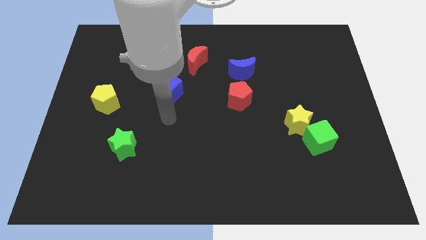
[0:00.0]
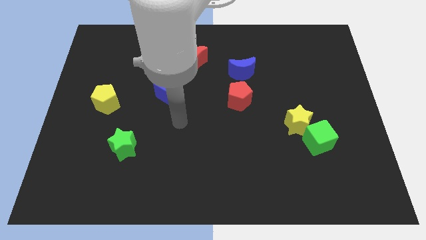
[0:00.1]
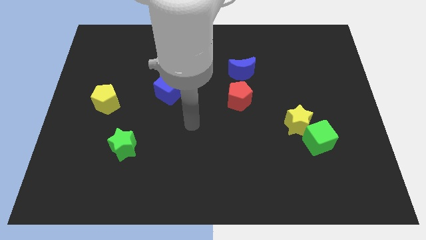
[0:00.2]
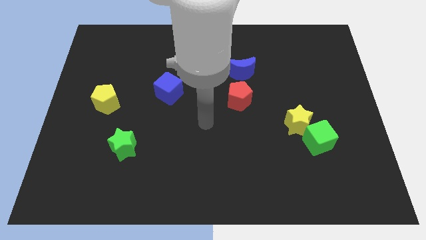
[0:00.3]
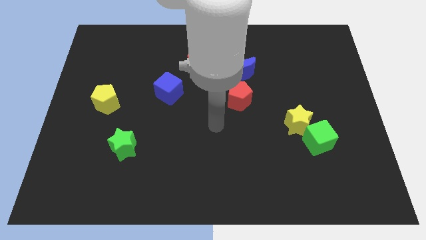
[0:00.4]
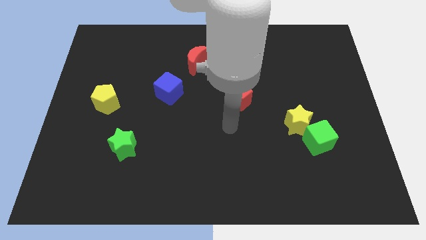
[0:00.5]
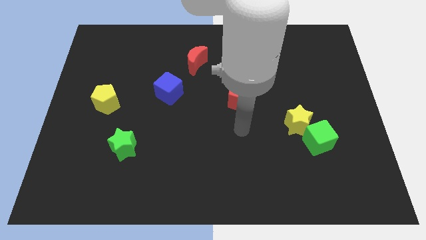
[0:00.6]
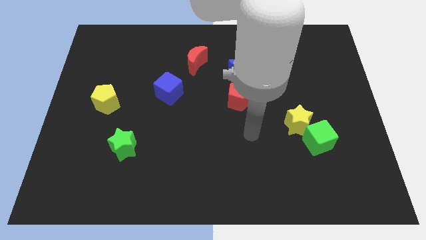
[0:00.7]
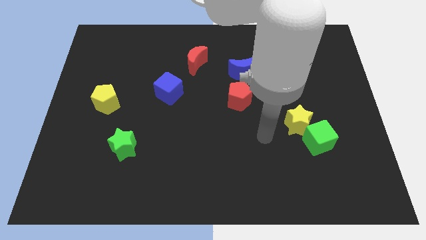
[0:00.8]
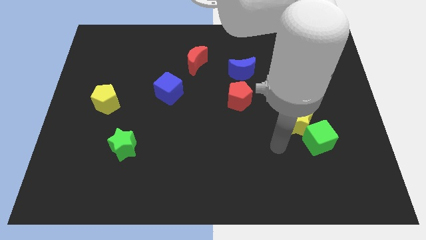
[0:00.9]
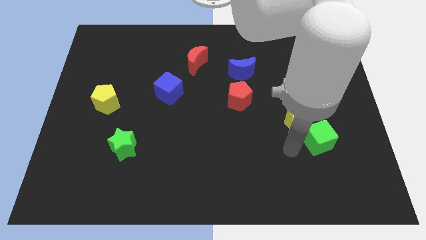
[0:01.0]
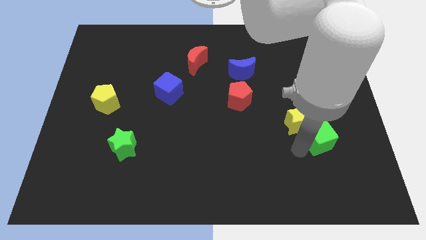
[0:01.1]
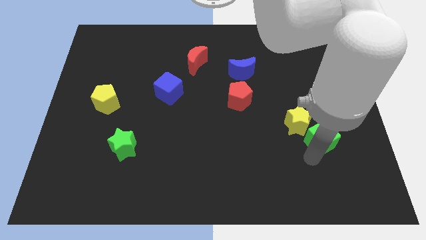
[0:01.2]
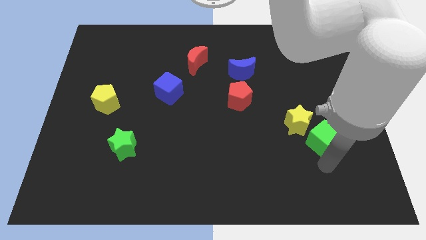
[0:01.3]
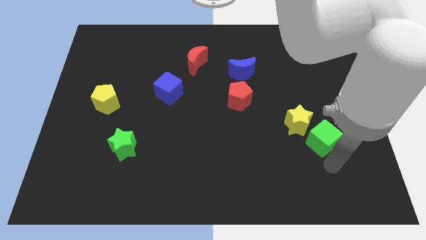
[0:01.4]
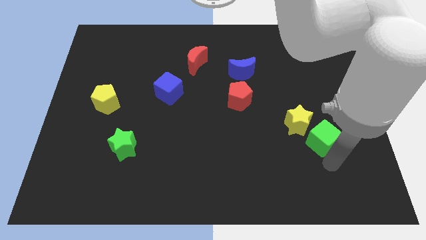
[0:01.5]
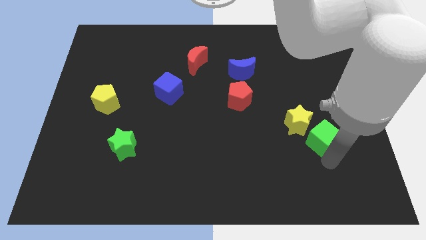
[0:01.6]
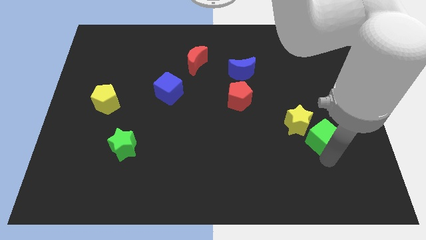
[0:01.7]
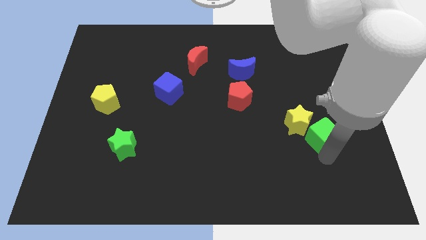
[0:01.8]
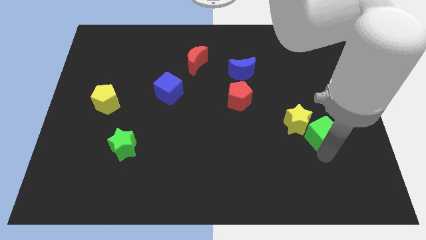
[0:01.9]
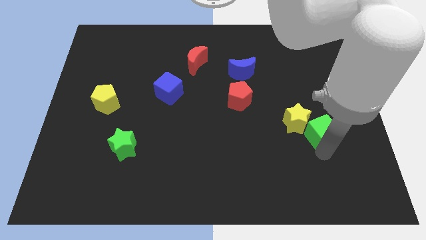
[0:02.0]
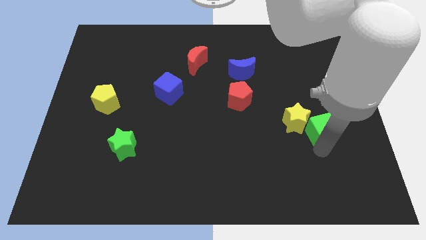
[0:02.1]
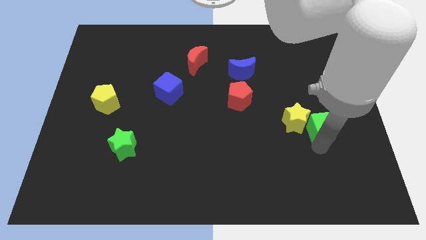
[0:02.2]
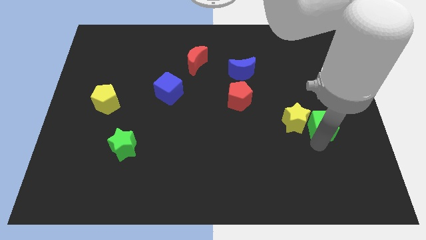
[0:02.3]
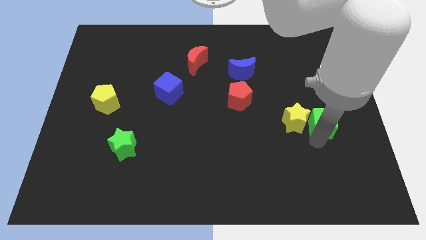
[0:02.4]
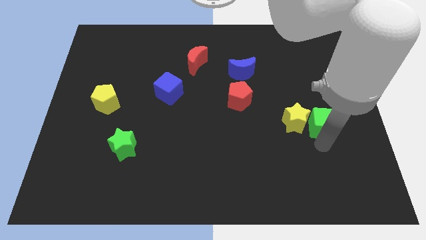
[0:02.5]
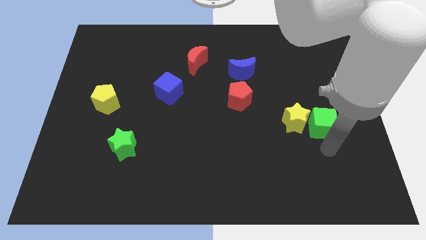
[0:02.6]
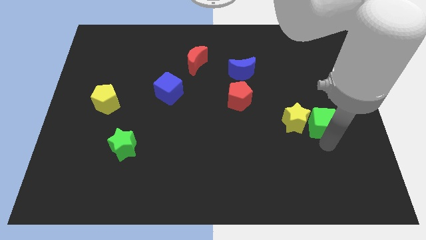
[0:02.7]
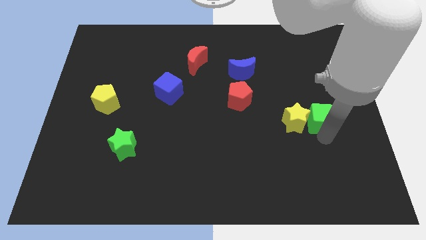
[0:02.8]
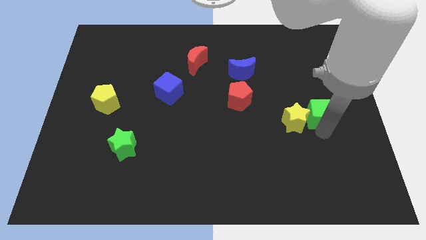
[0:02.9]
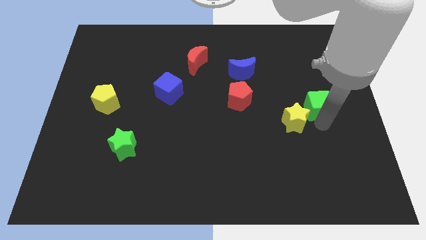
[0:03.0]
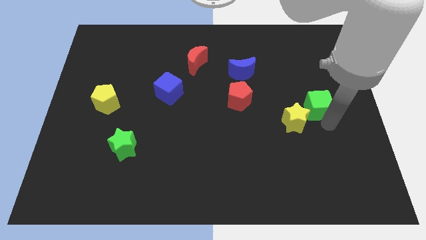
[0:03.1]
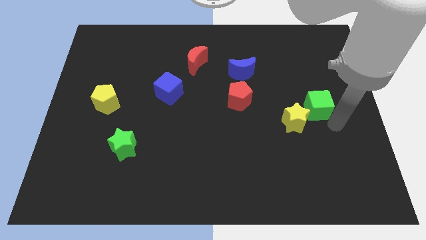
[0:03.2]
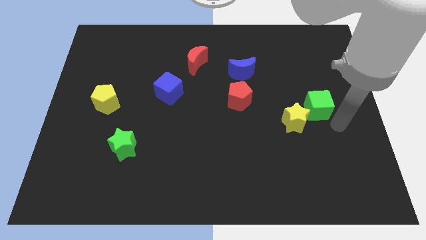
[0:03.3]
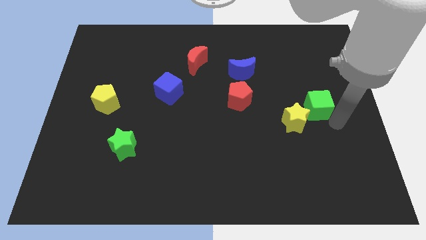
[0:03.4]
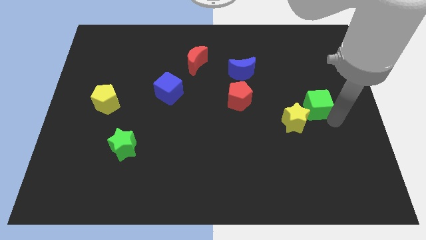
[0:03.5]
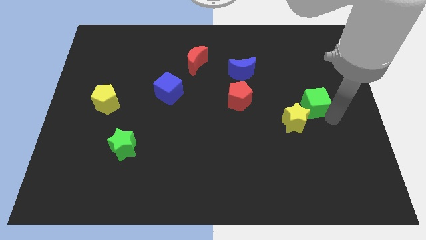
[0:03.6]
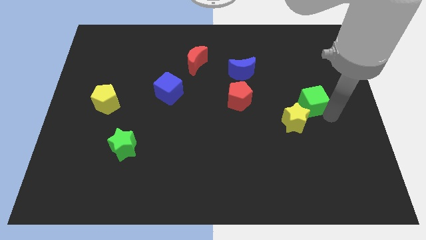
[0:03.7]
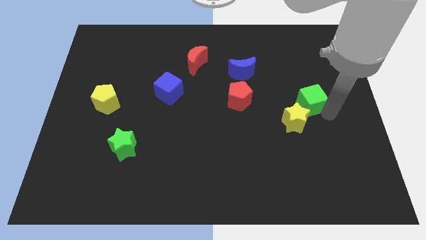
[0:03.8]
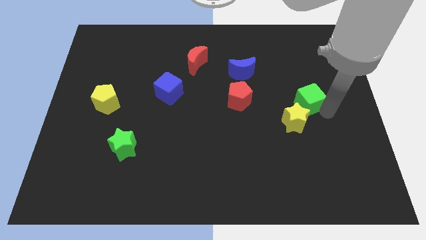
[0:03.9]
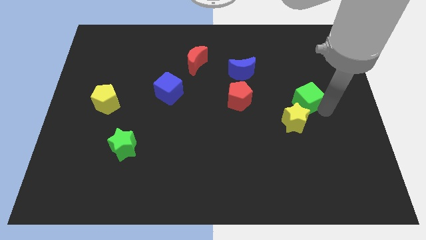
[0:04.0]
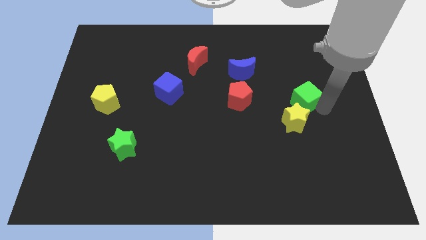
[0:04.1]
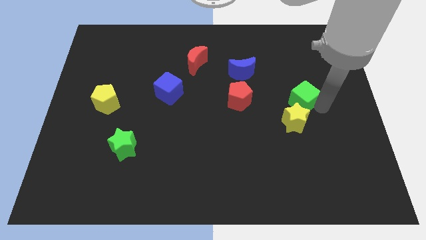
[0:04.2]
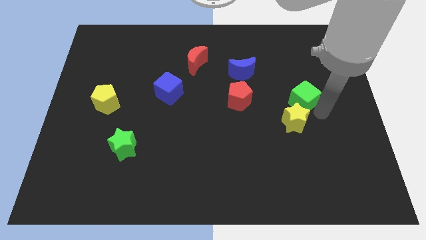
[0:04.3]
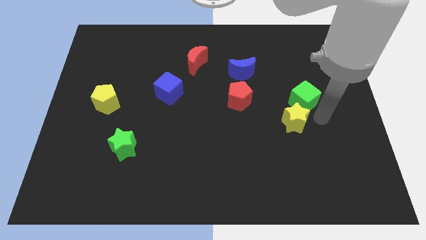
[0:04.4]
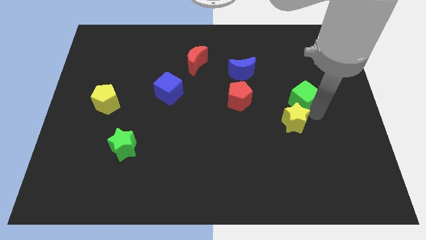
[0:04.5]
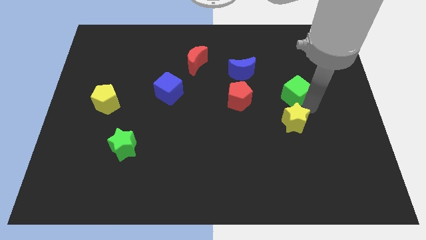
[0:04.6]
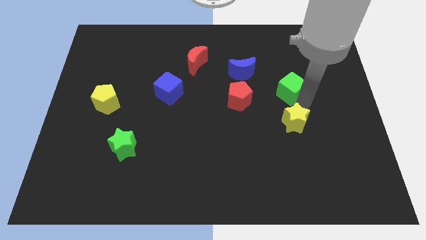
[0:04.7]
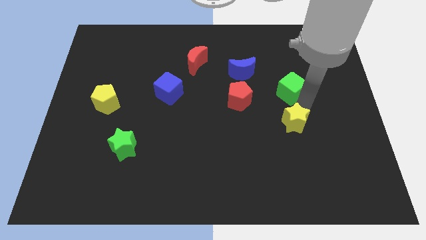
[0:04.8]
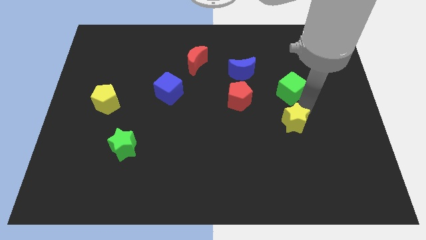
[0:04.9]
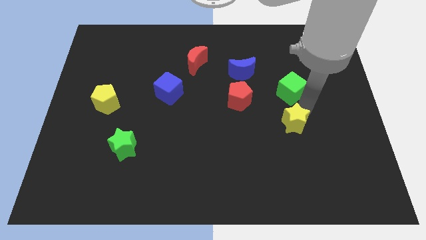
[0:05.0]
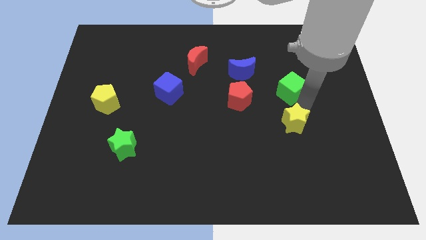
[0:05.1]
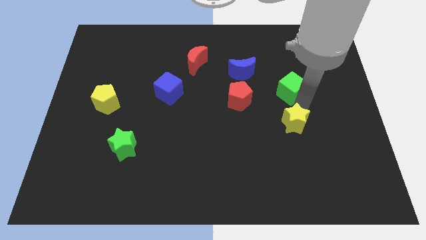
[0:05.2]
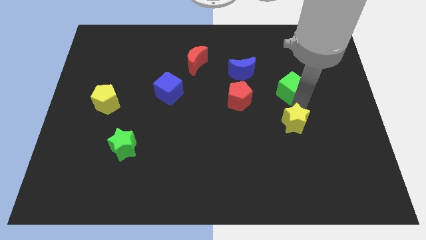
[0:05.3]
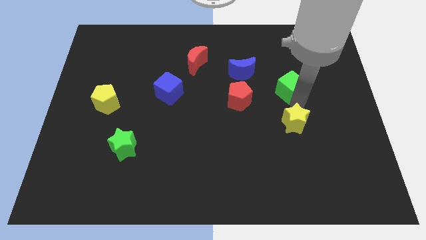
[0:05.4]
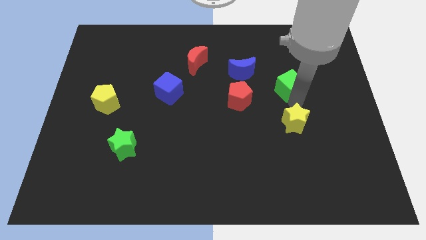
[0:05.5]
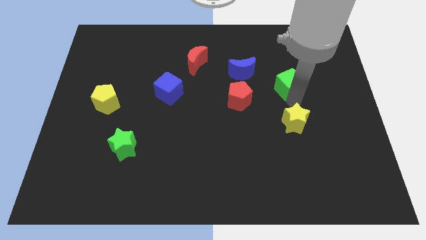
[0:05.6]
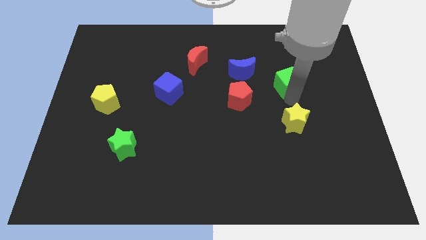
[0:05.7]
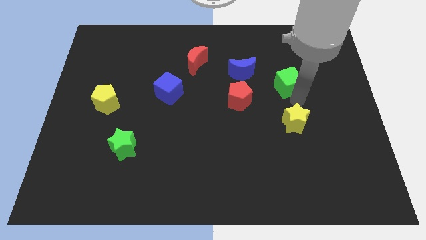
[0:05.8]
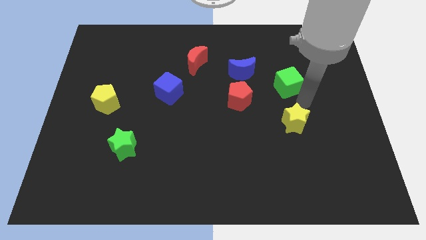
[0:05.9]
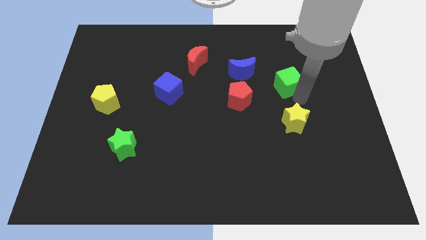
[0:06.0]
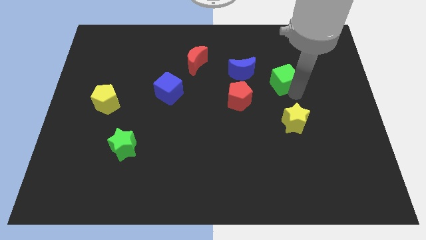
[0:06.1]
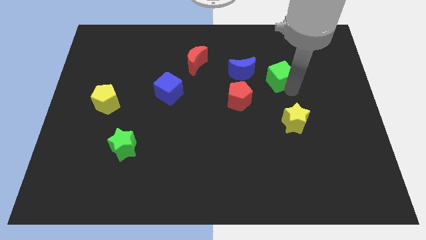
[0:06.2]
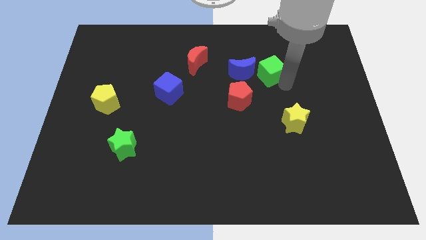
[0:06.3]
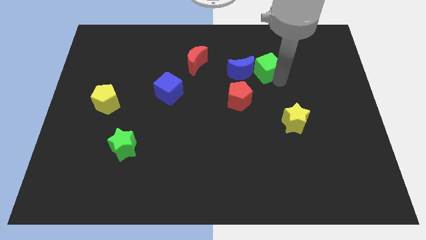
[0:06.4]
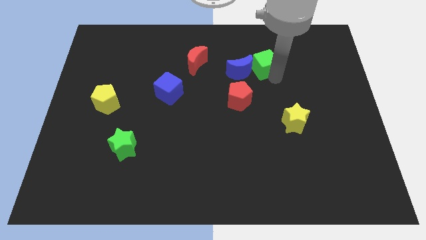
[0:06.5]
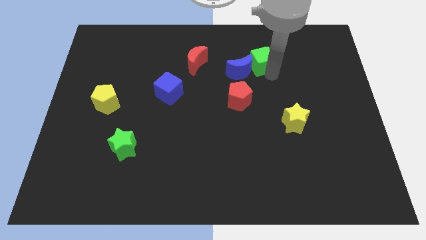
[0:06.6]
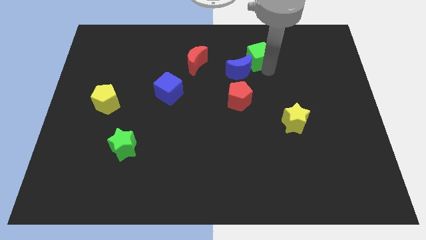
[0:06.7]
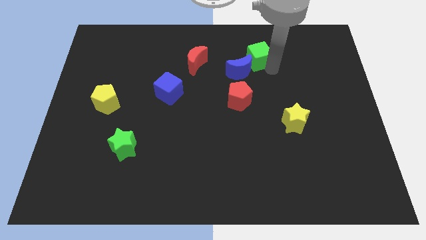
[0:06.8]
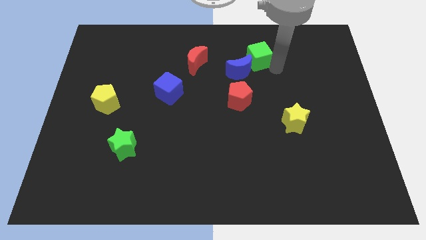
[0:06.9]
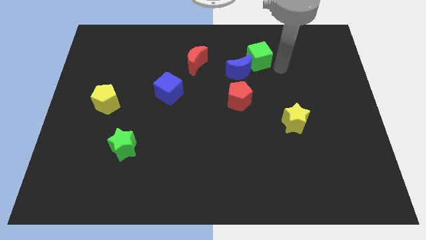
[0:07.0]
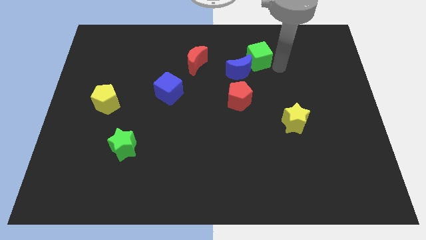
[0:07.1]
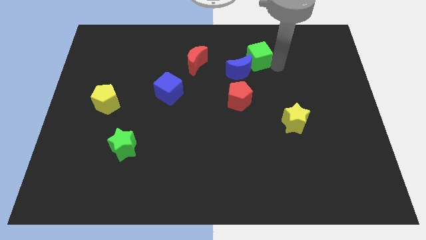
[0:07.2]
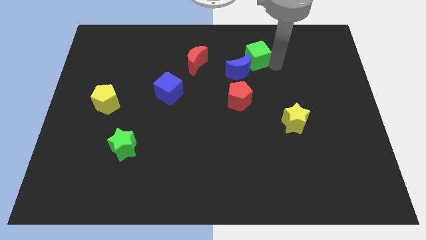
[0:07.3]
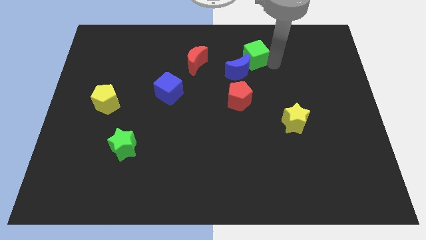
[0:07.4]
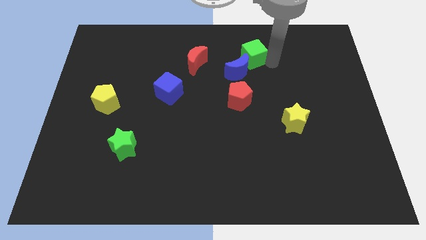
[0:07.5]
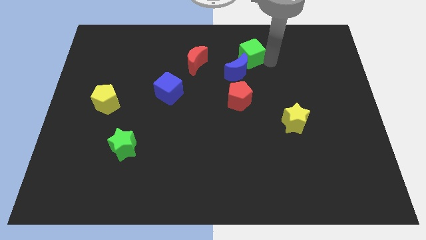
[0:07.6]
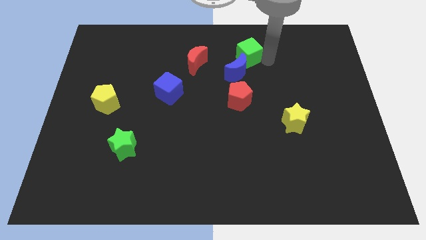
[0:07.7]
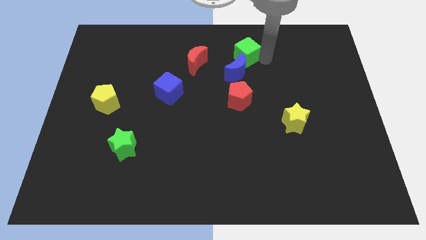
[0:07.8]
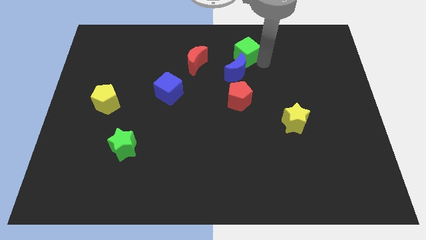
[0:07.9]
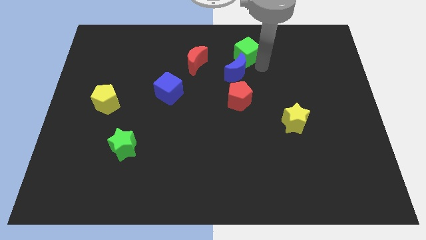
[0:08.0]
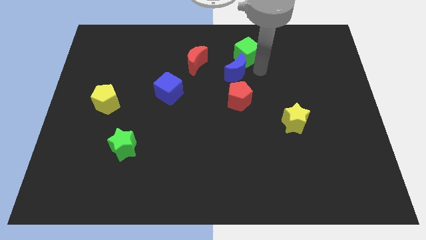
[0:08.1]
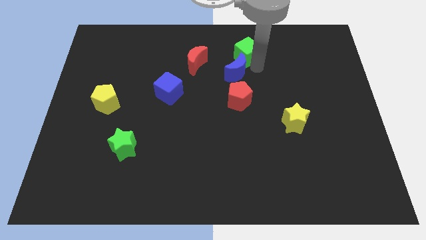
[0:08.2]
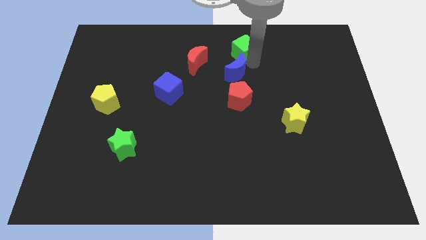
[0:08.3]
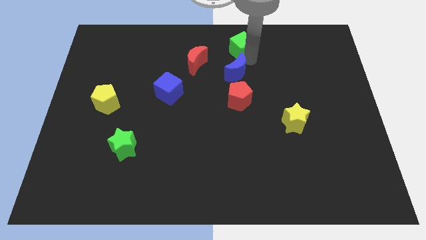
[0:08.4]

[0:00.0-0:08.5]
slide the green cube to the top side
